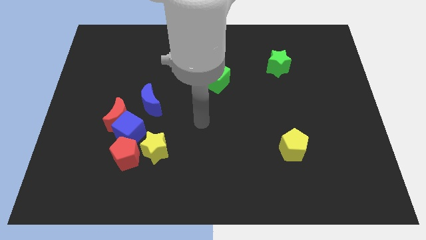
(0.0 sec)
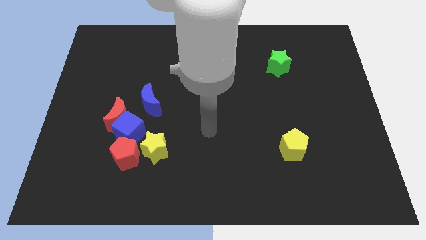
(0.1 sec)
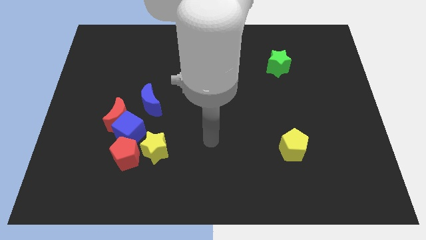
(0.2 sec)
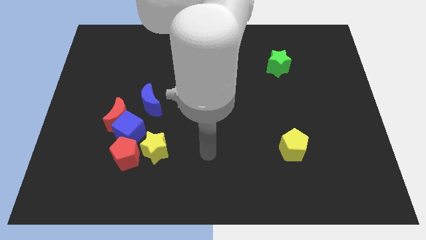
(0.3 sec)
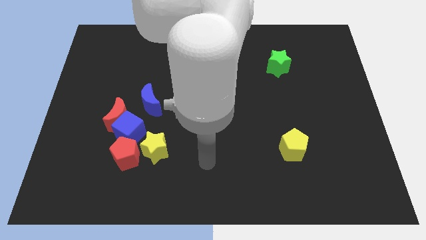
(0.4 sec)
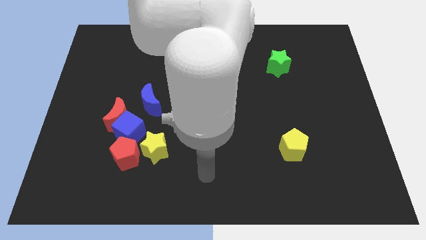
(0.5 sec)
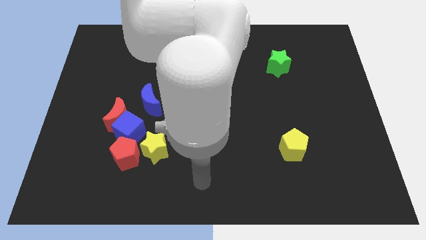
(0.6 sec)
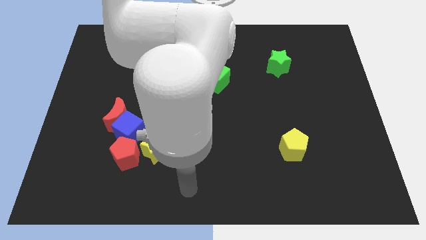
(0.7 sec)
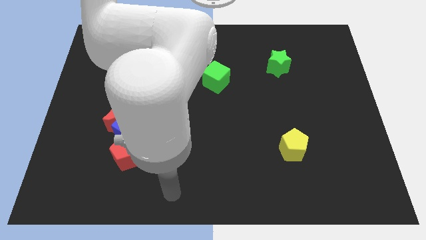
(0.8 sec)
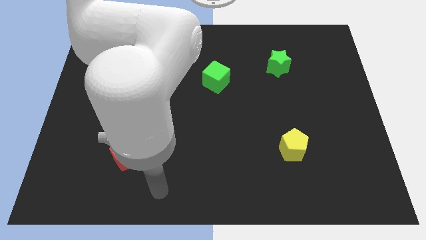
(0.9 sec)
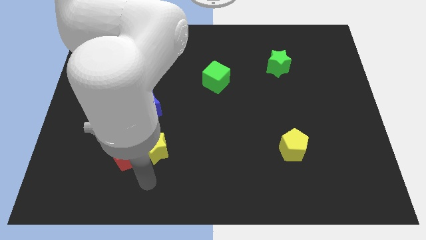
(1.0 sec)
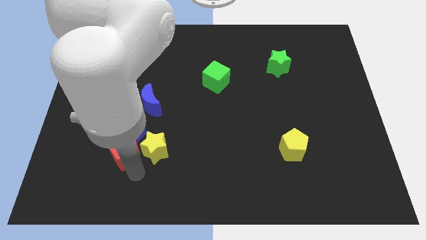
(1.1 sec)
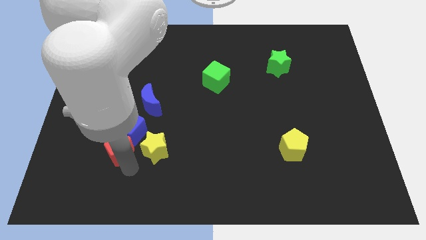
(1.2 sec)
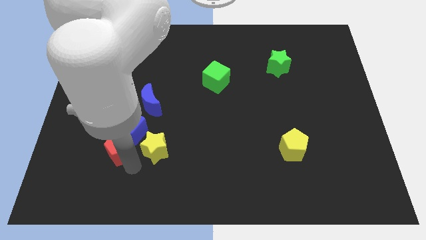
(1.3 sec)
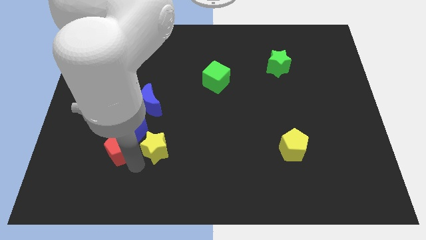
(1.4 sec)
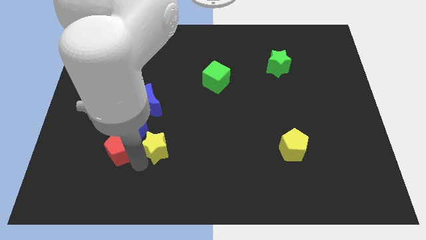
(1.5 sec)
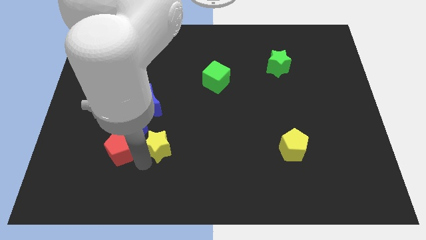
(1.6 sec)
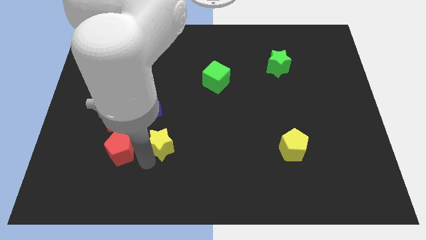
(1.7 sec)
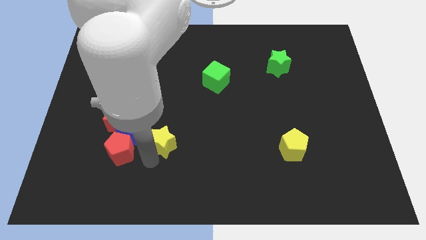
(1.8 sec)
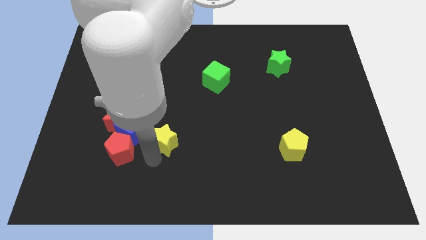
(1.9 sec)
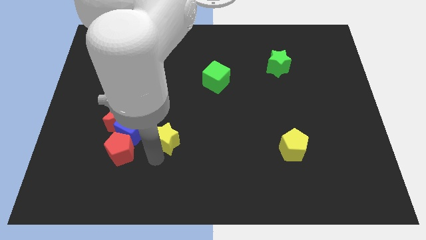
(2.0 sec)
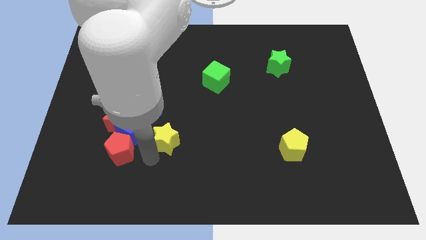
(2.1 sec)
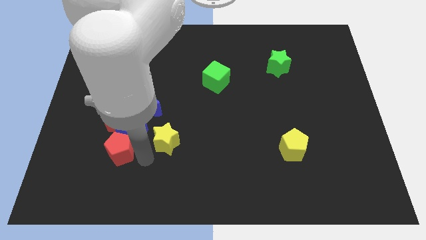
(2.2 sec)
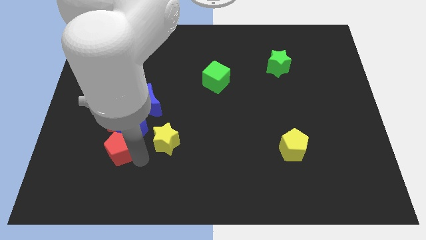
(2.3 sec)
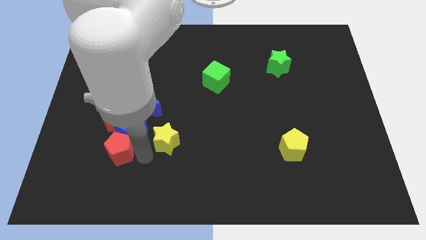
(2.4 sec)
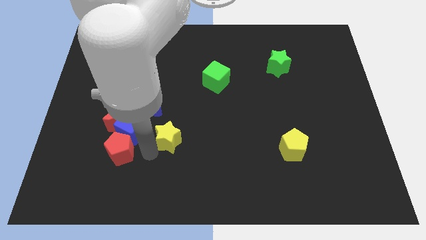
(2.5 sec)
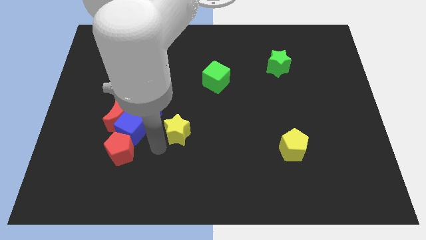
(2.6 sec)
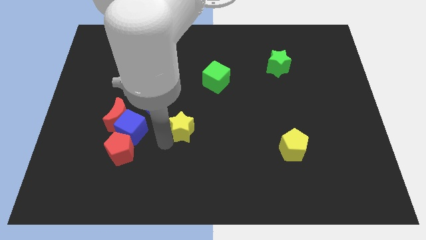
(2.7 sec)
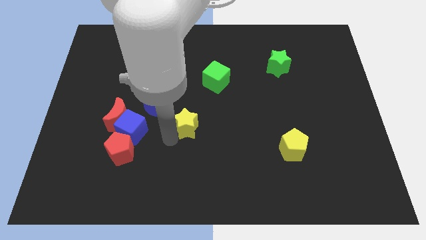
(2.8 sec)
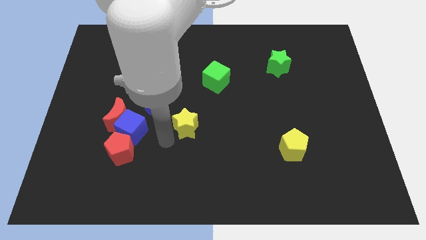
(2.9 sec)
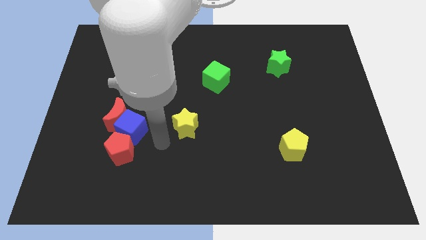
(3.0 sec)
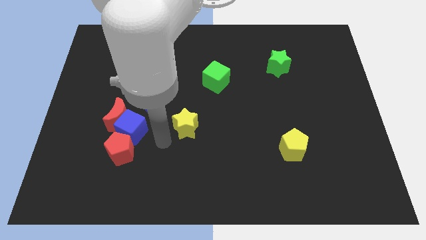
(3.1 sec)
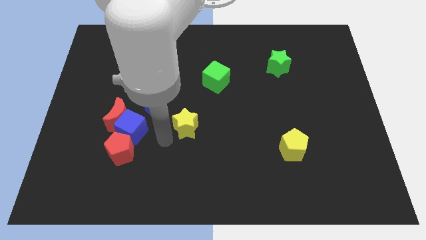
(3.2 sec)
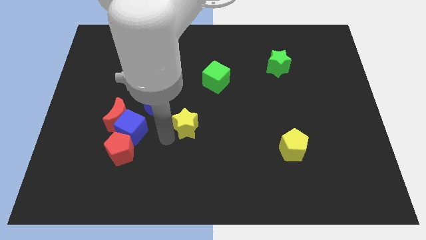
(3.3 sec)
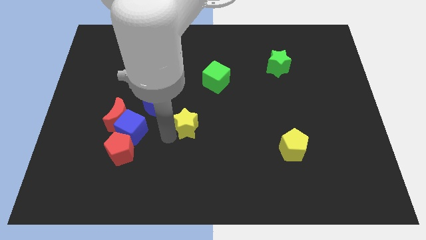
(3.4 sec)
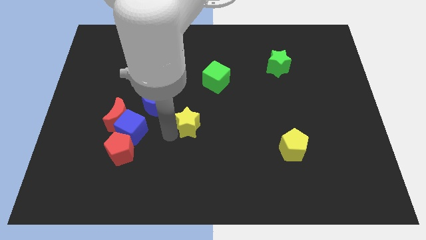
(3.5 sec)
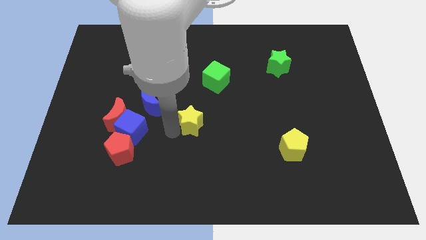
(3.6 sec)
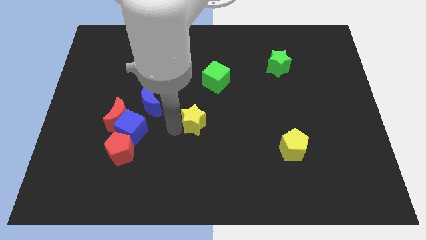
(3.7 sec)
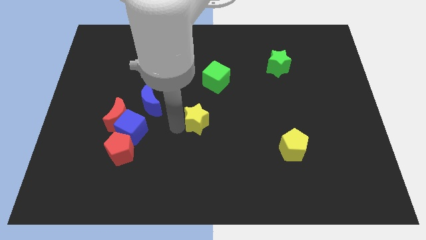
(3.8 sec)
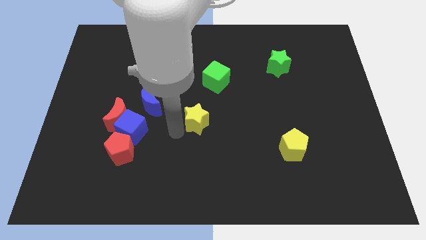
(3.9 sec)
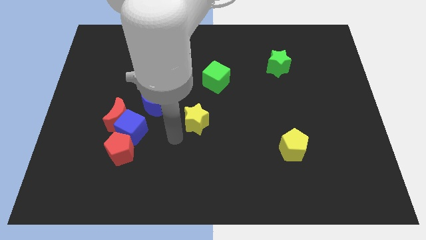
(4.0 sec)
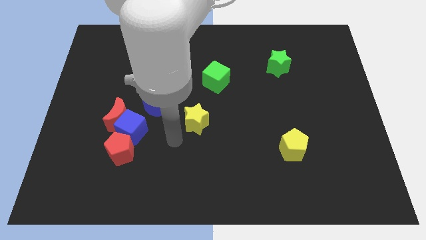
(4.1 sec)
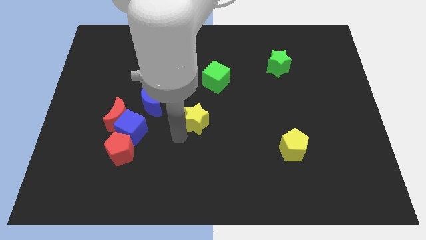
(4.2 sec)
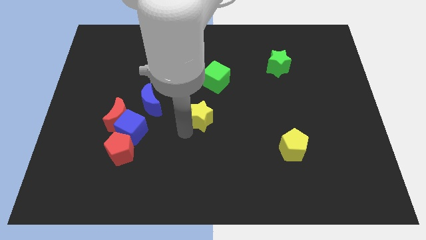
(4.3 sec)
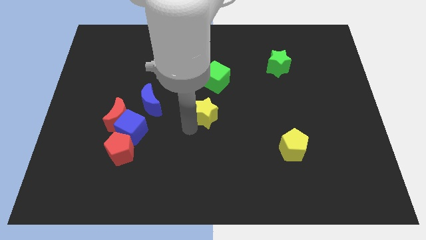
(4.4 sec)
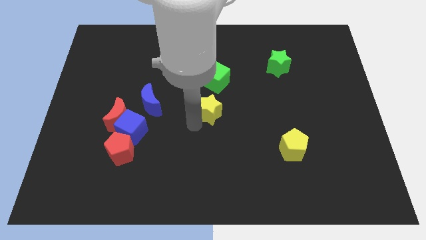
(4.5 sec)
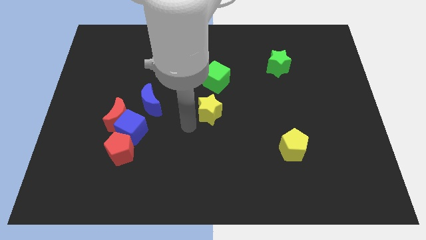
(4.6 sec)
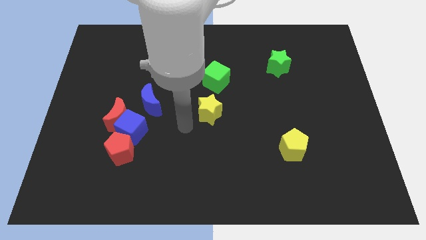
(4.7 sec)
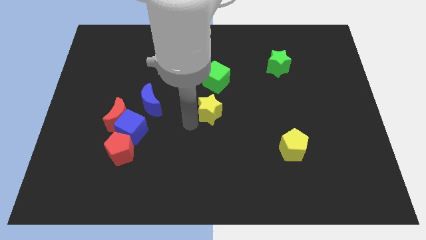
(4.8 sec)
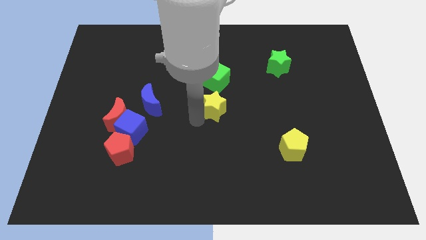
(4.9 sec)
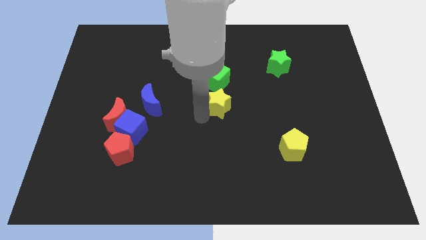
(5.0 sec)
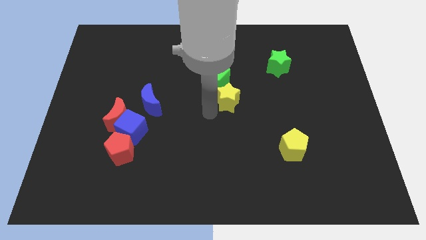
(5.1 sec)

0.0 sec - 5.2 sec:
slide the yellow star up and right

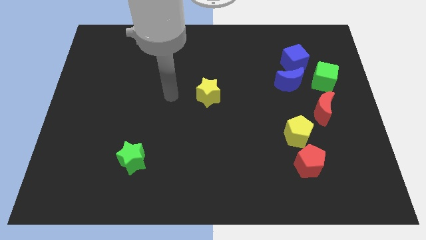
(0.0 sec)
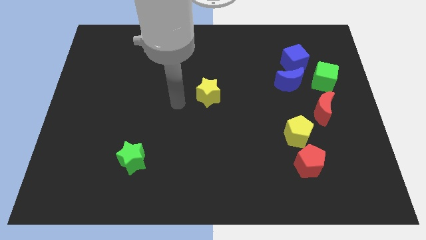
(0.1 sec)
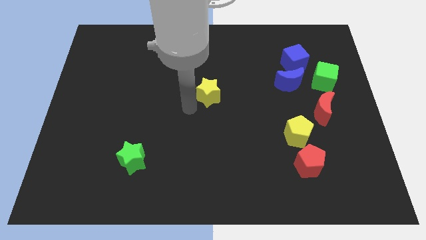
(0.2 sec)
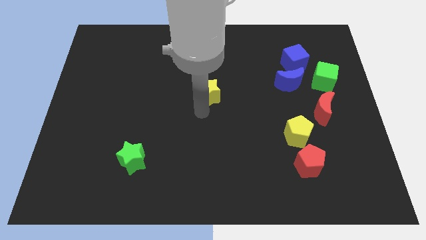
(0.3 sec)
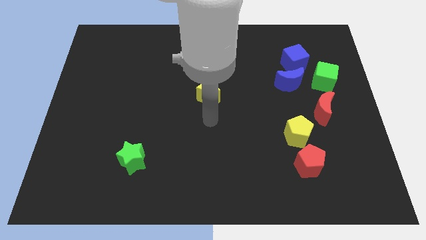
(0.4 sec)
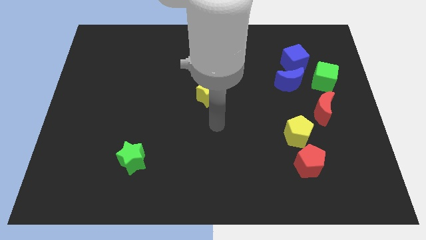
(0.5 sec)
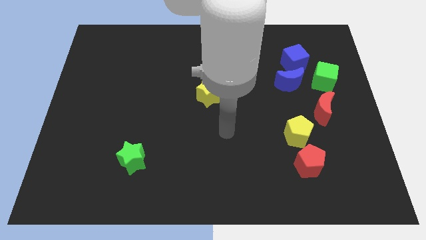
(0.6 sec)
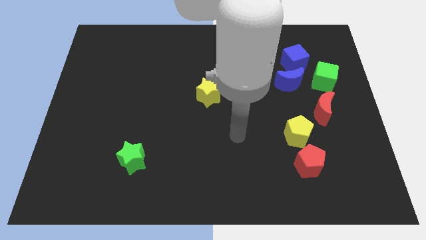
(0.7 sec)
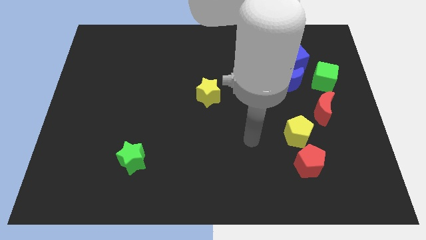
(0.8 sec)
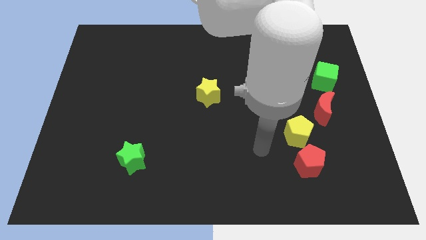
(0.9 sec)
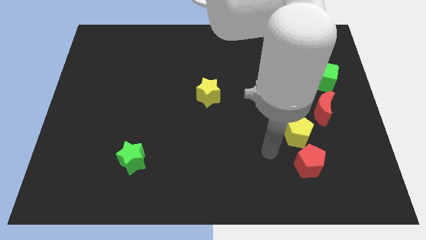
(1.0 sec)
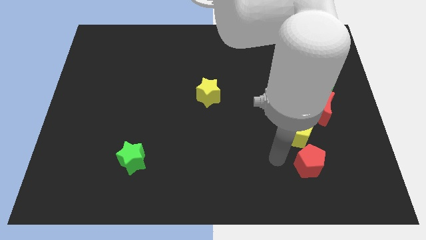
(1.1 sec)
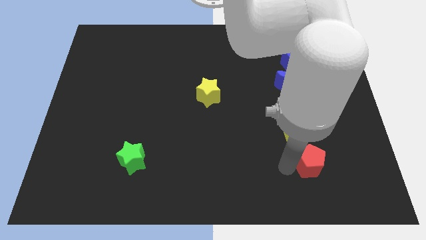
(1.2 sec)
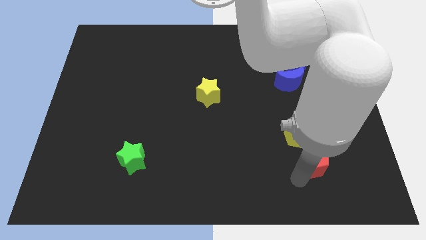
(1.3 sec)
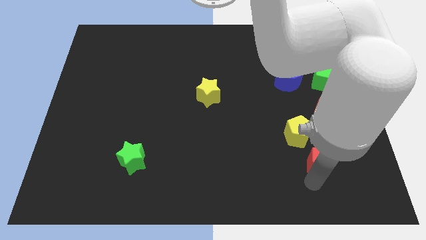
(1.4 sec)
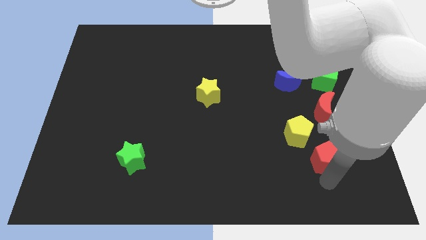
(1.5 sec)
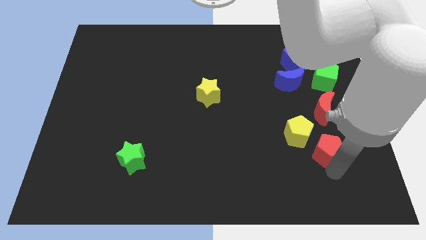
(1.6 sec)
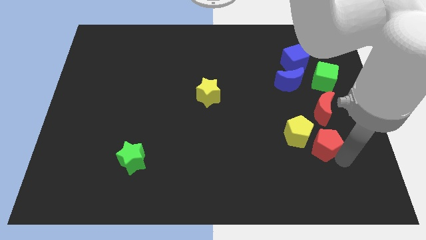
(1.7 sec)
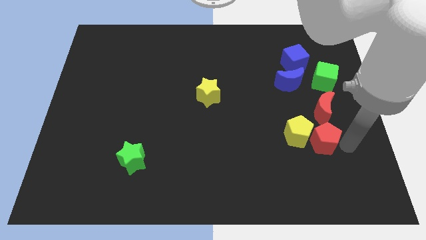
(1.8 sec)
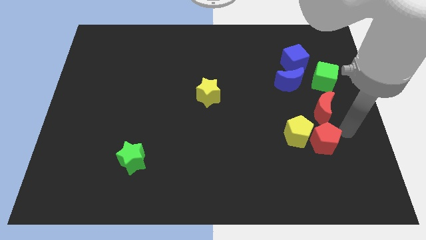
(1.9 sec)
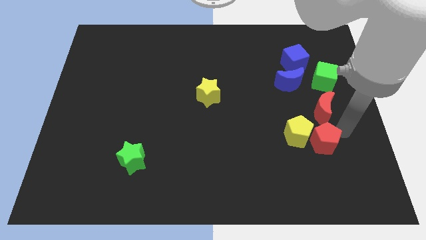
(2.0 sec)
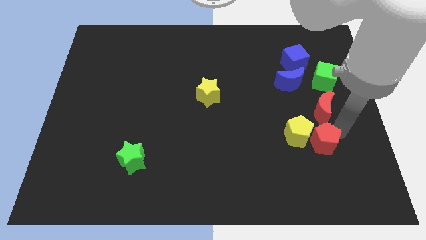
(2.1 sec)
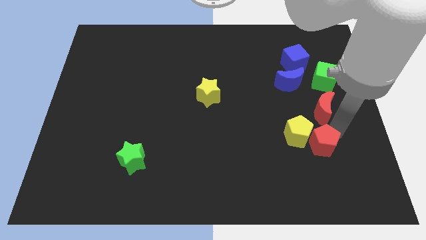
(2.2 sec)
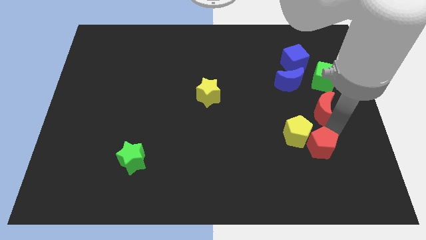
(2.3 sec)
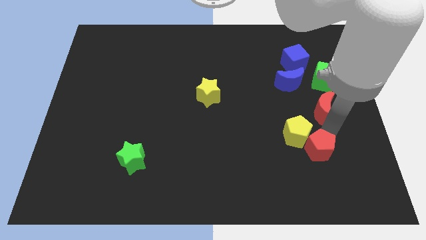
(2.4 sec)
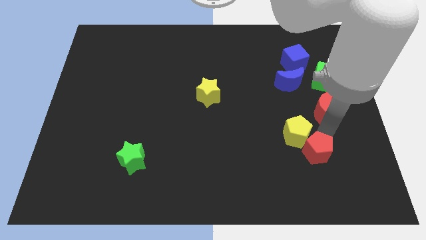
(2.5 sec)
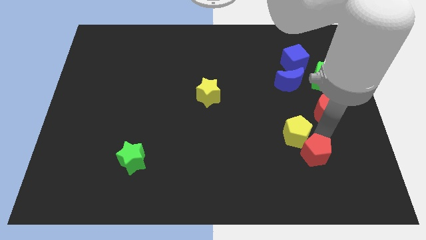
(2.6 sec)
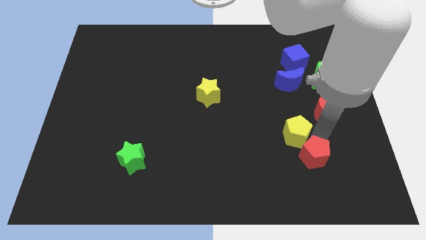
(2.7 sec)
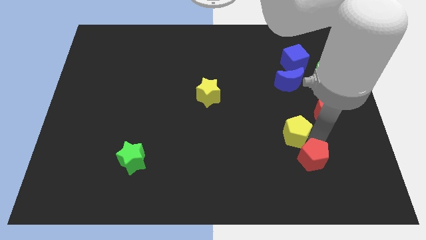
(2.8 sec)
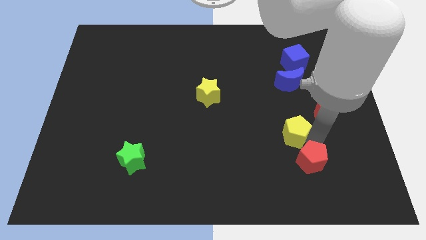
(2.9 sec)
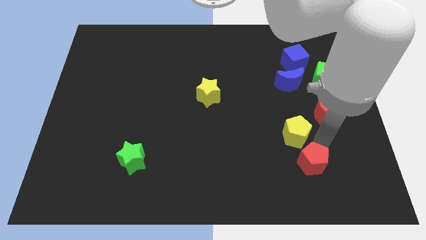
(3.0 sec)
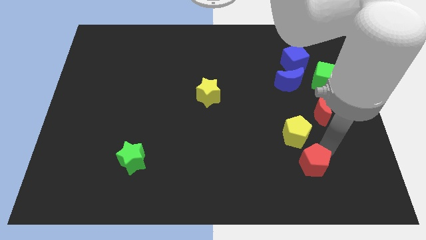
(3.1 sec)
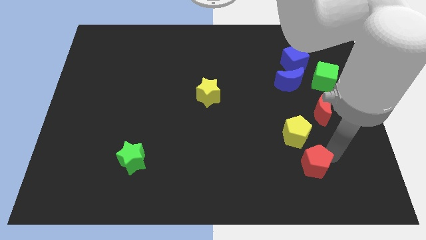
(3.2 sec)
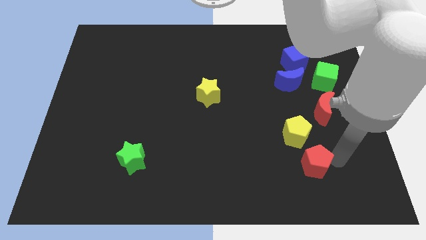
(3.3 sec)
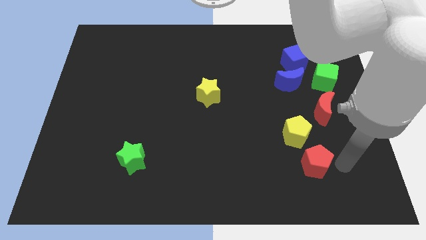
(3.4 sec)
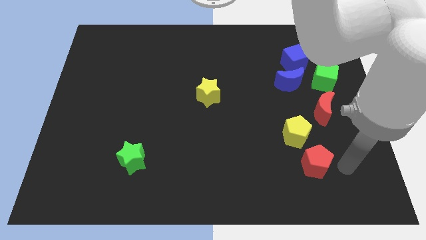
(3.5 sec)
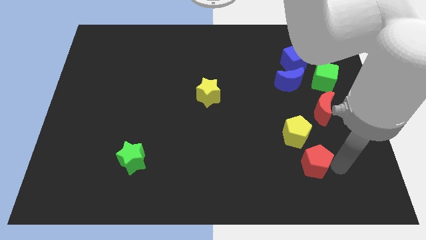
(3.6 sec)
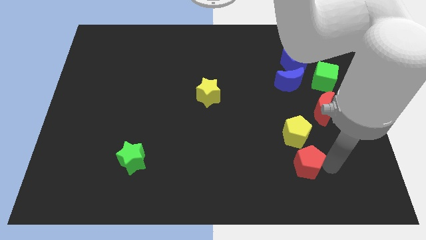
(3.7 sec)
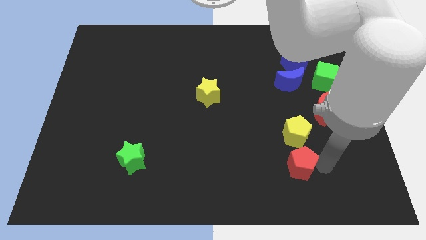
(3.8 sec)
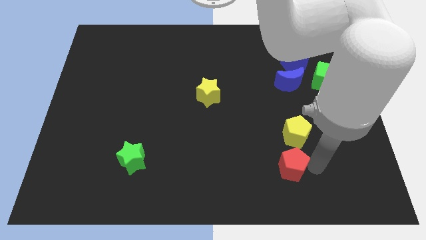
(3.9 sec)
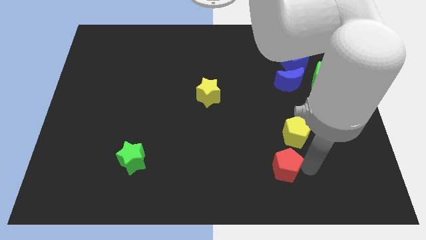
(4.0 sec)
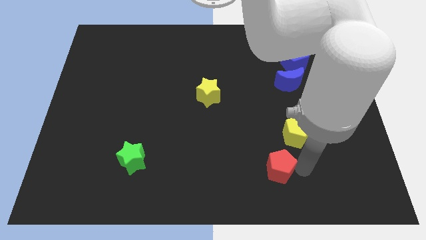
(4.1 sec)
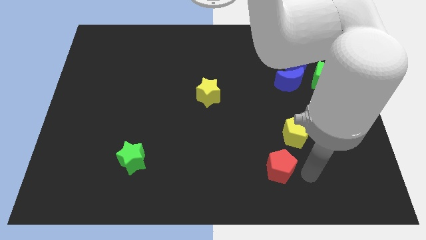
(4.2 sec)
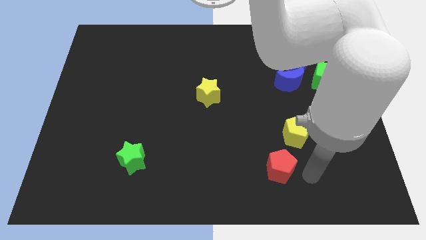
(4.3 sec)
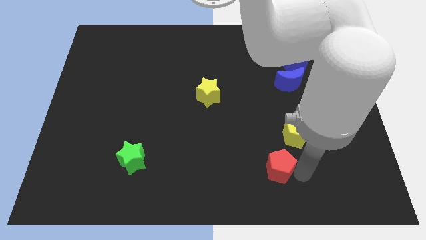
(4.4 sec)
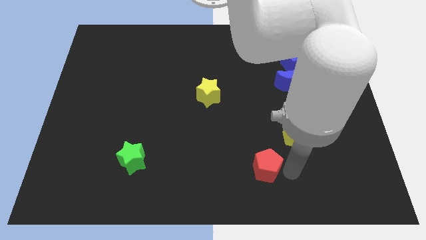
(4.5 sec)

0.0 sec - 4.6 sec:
slightly slide the red pentagon to the left
